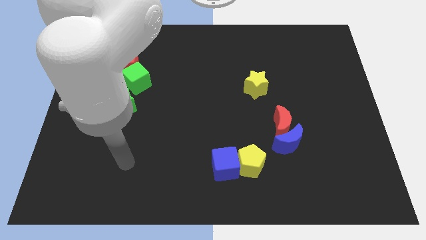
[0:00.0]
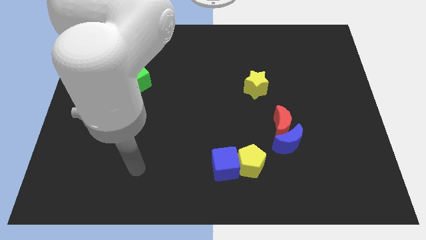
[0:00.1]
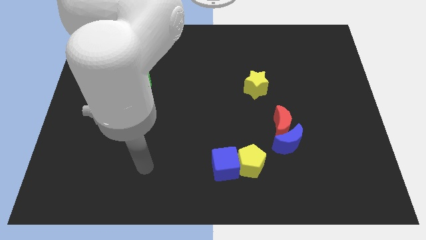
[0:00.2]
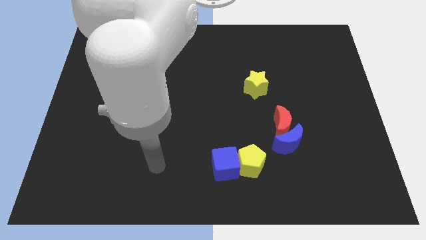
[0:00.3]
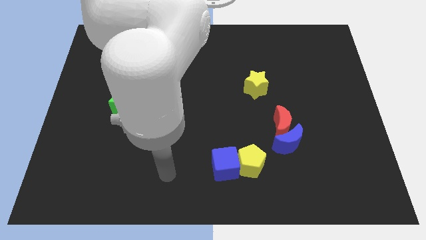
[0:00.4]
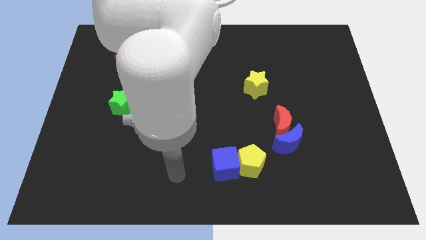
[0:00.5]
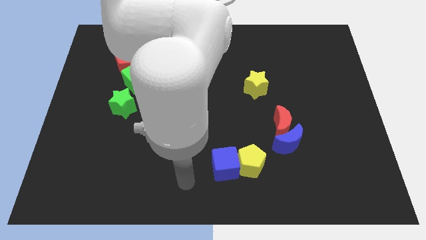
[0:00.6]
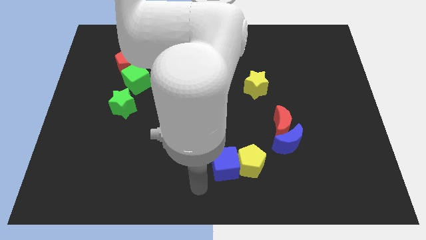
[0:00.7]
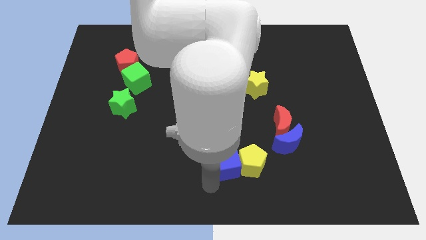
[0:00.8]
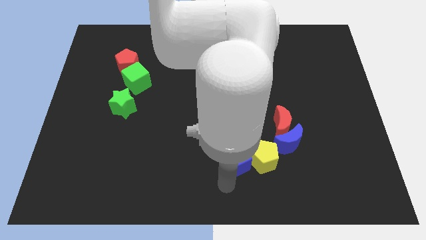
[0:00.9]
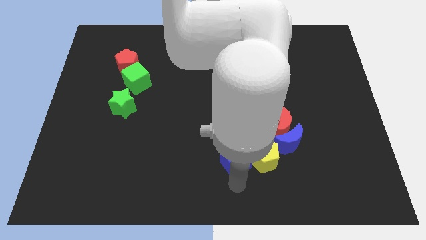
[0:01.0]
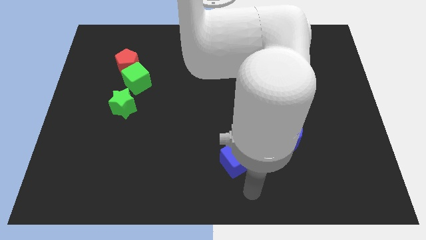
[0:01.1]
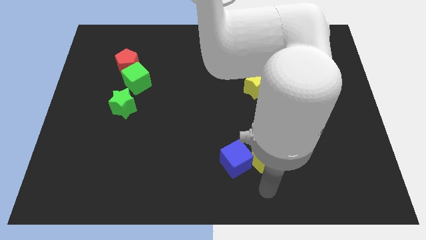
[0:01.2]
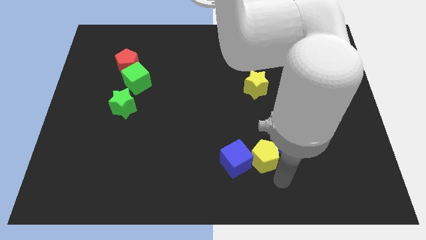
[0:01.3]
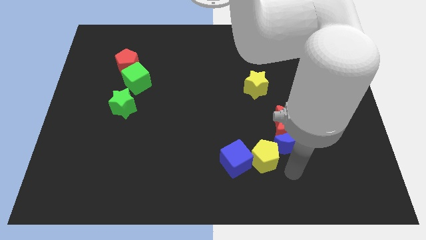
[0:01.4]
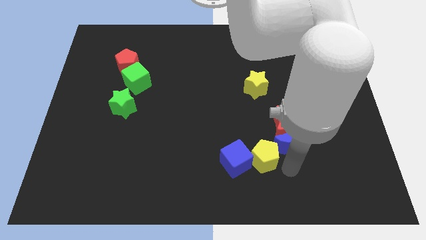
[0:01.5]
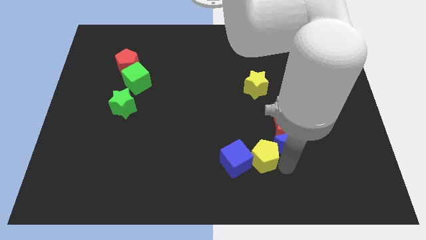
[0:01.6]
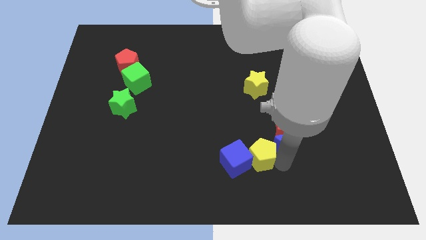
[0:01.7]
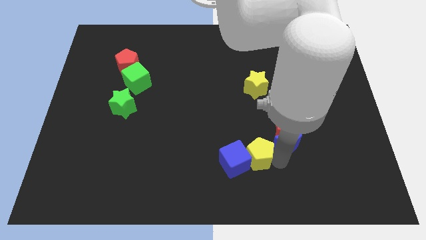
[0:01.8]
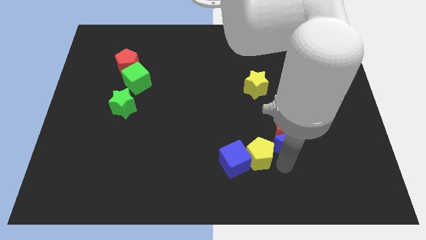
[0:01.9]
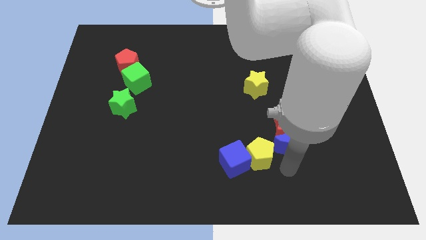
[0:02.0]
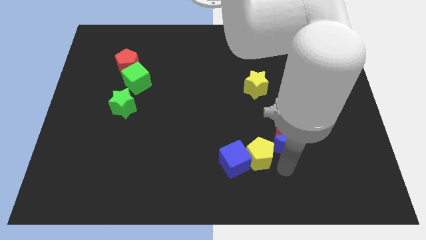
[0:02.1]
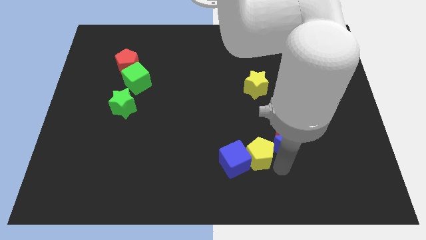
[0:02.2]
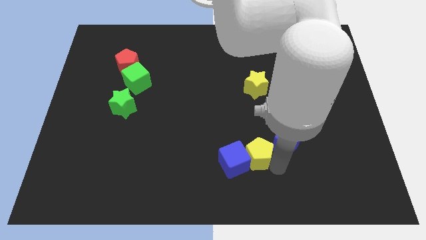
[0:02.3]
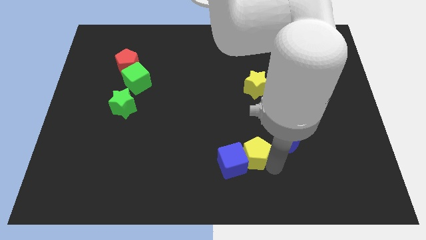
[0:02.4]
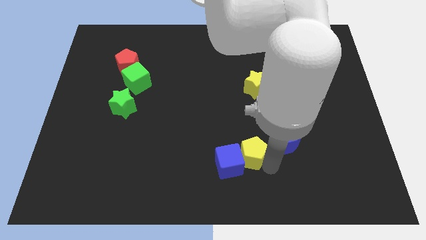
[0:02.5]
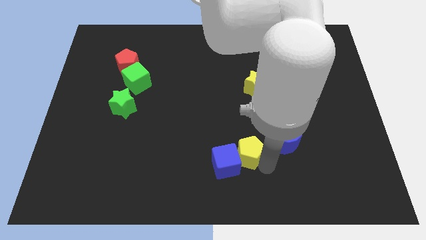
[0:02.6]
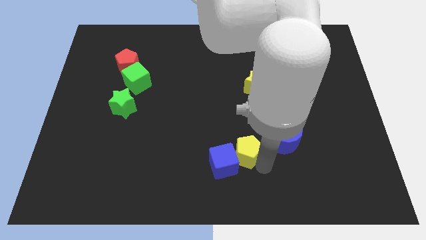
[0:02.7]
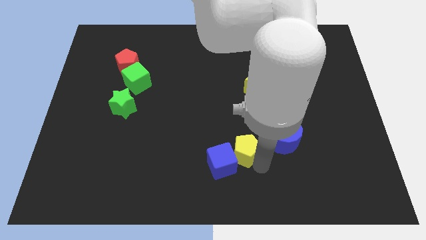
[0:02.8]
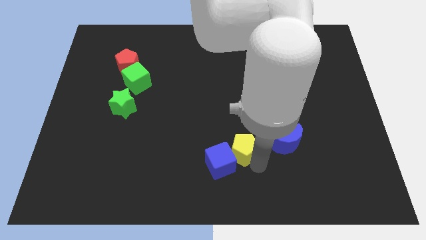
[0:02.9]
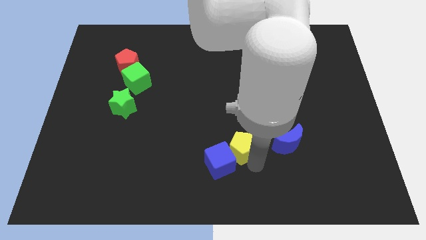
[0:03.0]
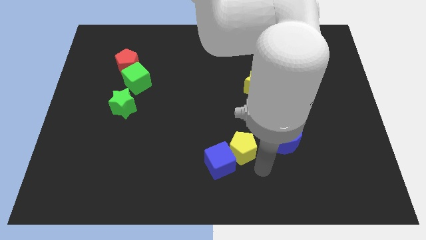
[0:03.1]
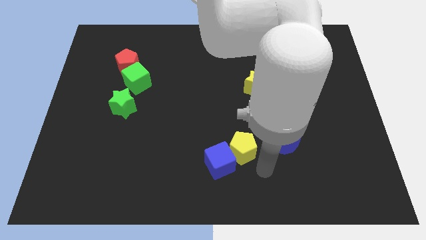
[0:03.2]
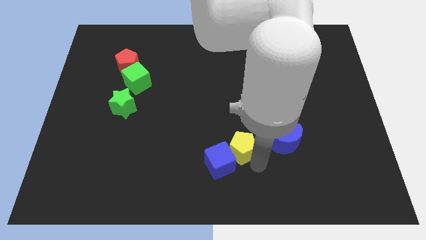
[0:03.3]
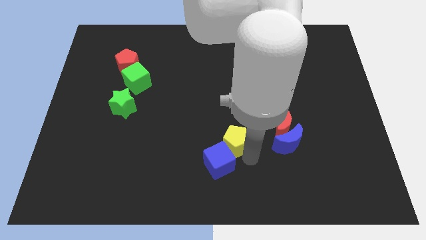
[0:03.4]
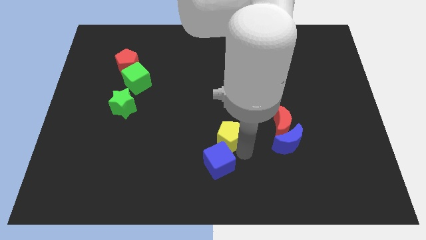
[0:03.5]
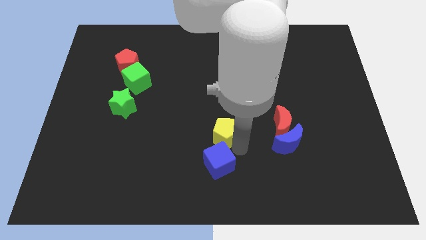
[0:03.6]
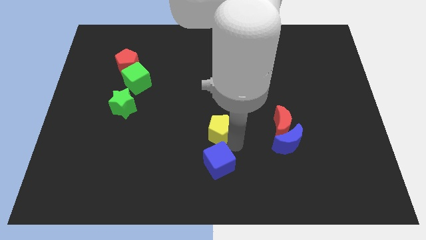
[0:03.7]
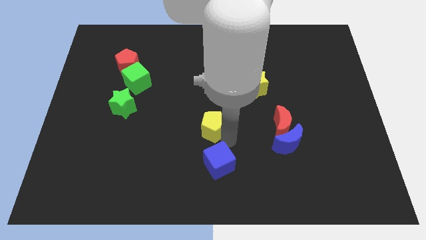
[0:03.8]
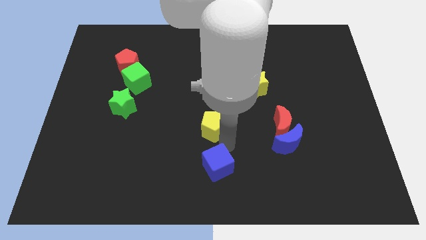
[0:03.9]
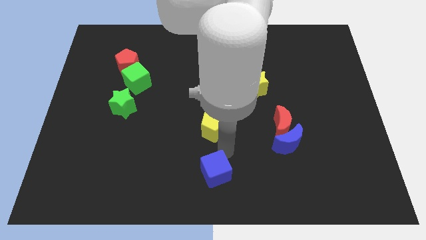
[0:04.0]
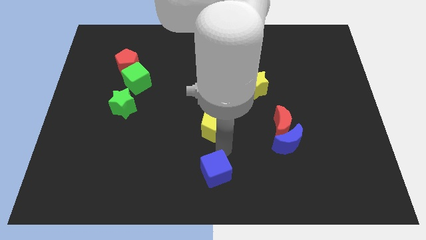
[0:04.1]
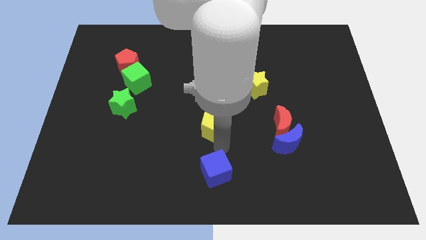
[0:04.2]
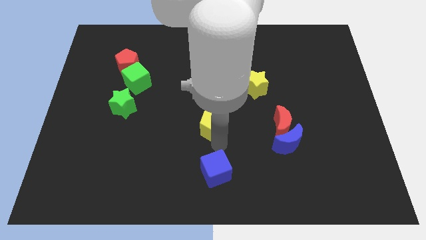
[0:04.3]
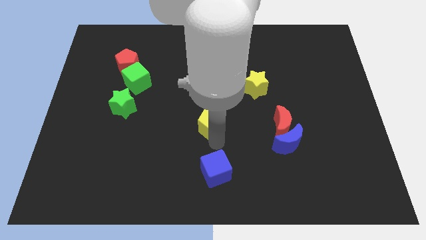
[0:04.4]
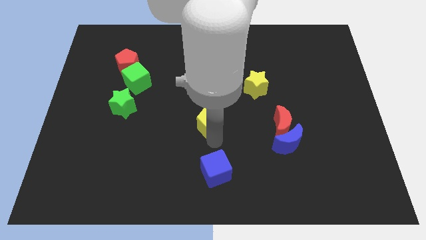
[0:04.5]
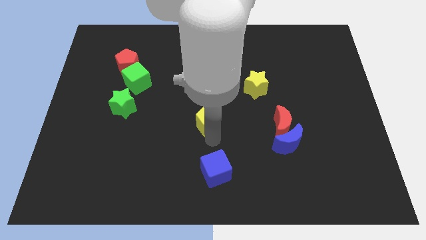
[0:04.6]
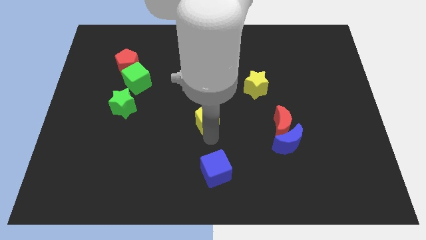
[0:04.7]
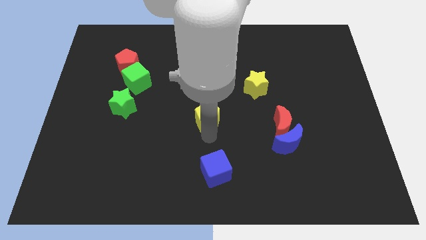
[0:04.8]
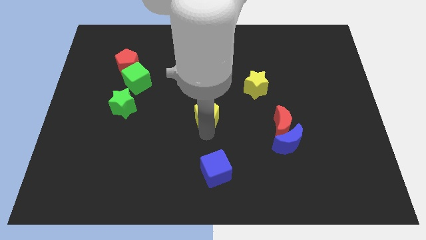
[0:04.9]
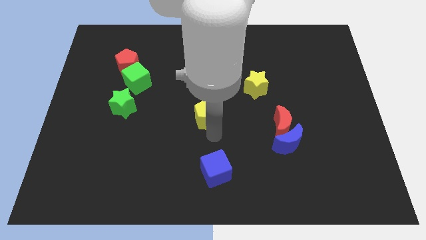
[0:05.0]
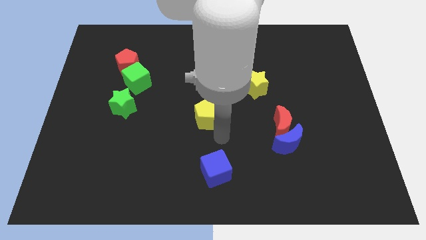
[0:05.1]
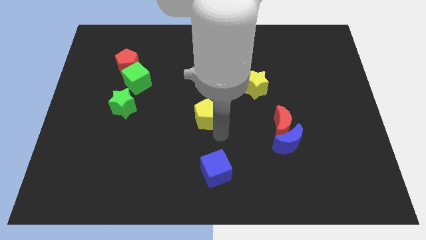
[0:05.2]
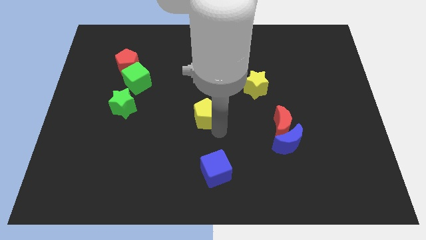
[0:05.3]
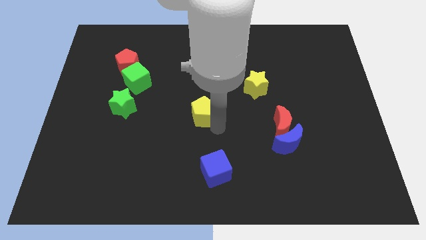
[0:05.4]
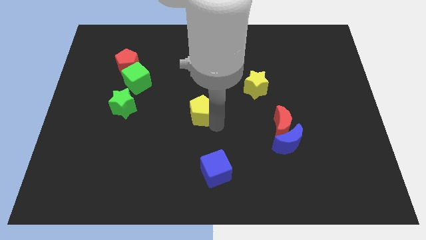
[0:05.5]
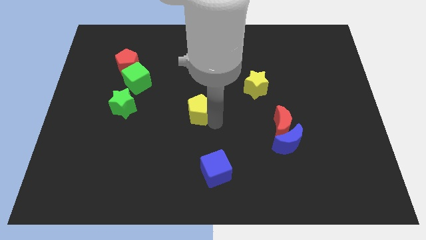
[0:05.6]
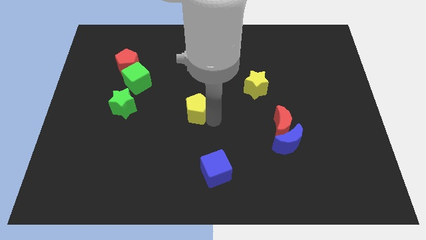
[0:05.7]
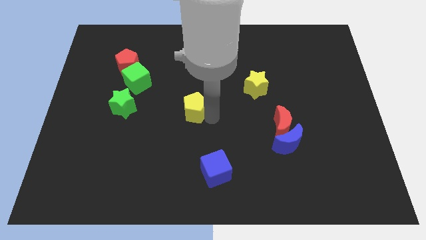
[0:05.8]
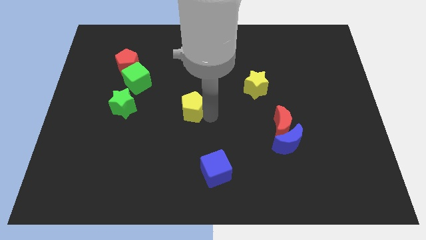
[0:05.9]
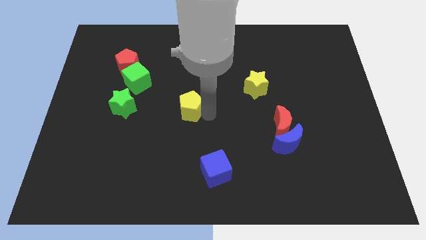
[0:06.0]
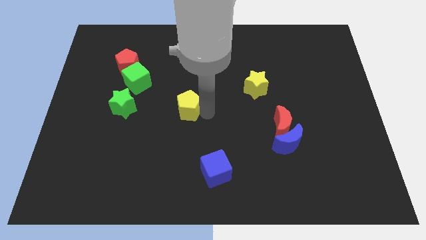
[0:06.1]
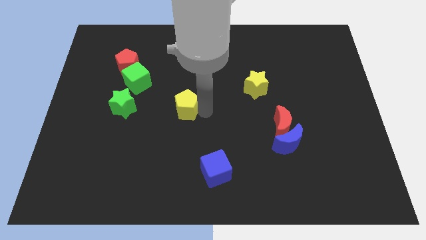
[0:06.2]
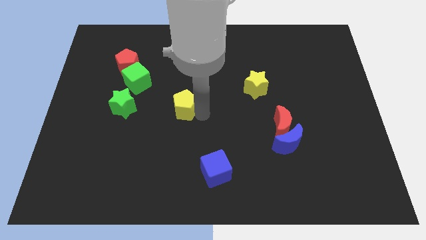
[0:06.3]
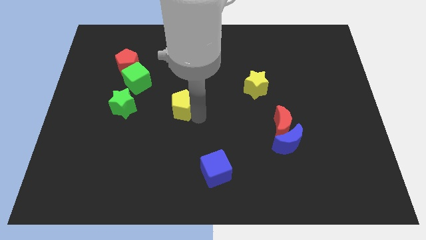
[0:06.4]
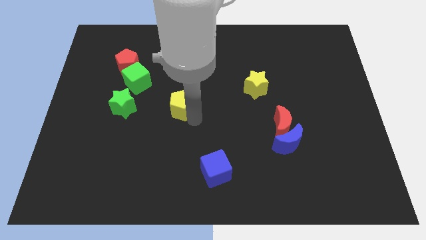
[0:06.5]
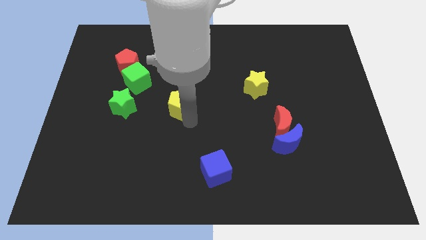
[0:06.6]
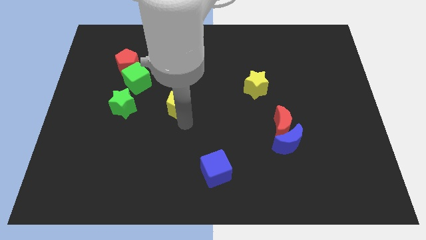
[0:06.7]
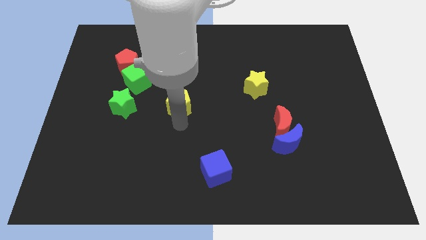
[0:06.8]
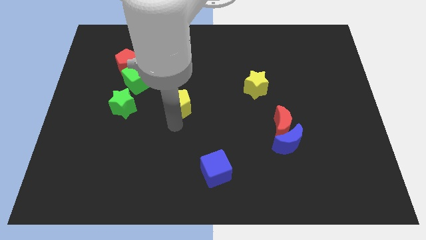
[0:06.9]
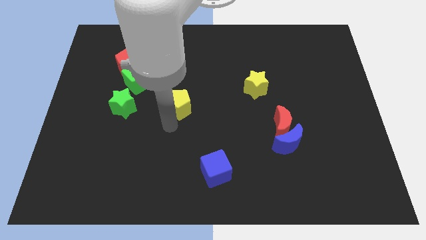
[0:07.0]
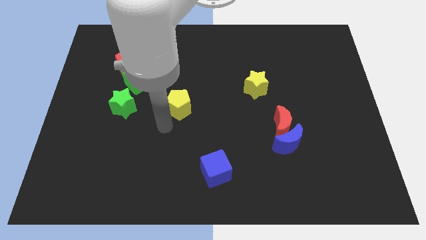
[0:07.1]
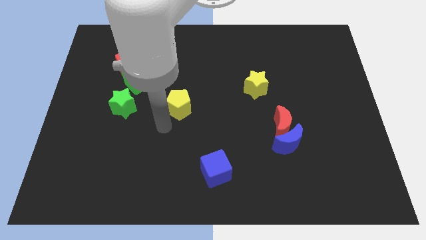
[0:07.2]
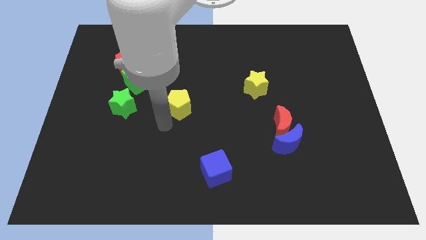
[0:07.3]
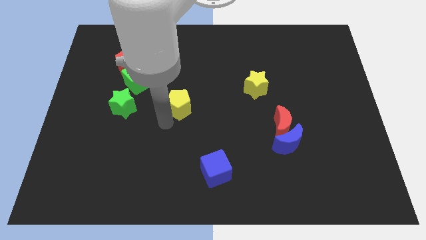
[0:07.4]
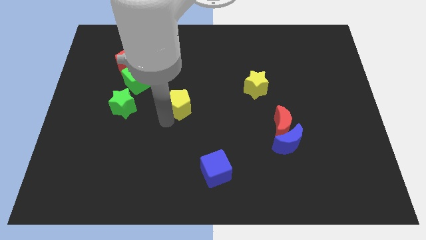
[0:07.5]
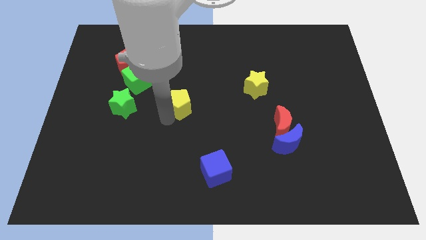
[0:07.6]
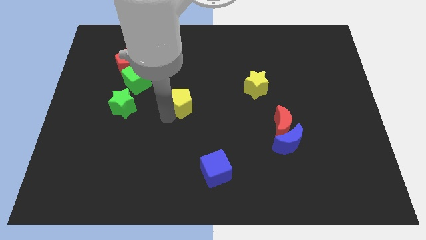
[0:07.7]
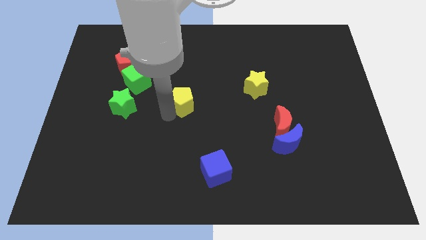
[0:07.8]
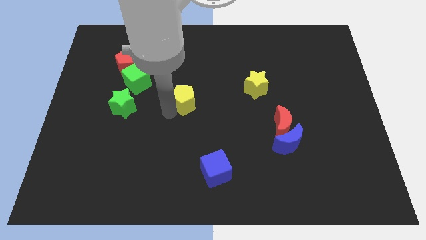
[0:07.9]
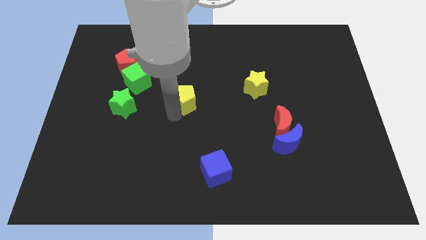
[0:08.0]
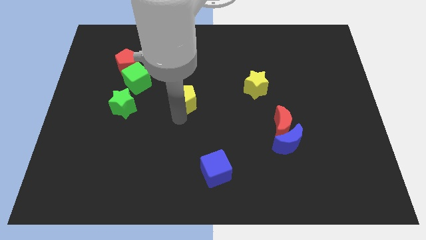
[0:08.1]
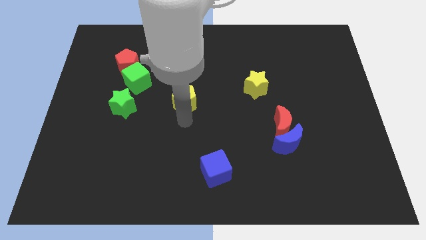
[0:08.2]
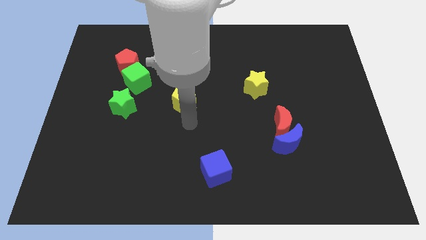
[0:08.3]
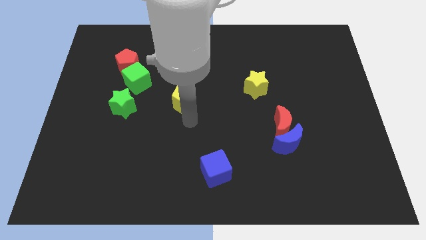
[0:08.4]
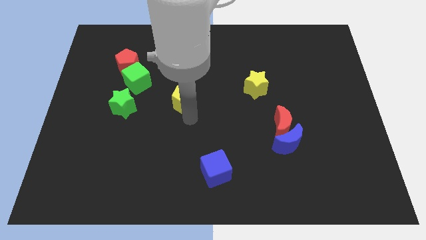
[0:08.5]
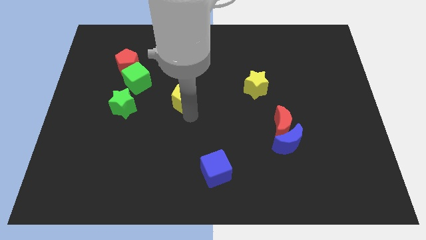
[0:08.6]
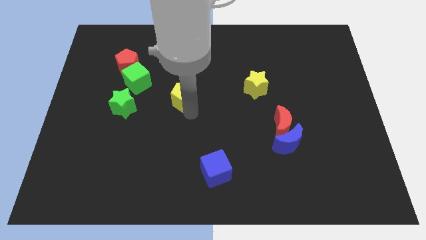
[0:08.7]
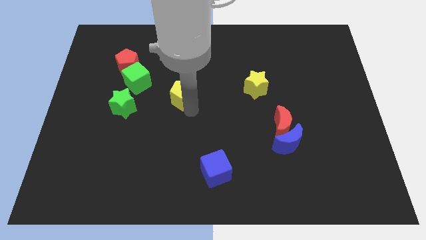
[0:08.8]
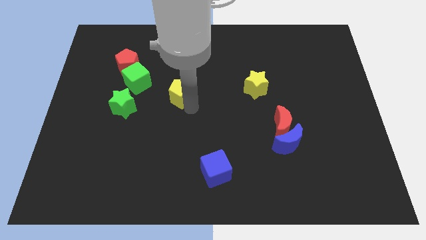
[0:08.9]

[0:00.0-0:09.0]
push the yellow pentagon right of the green cube
